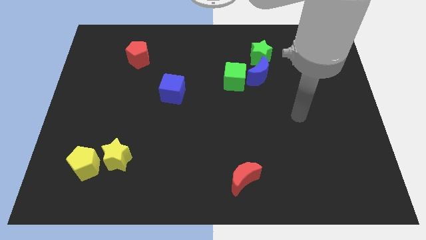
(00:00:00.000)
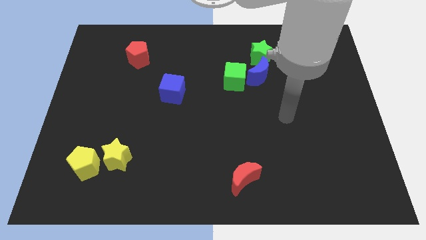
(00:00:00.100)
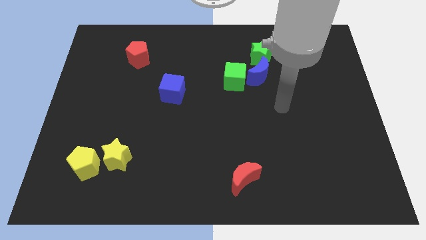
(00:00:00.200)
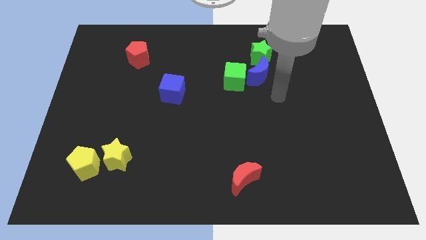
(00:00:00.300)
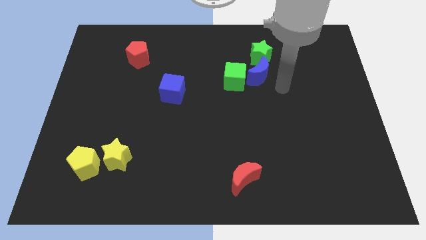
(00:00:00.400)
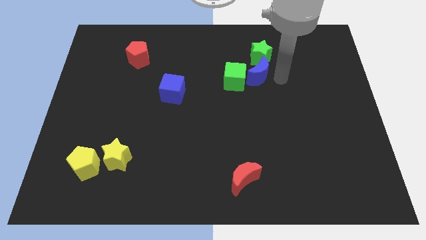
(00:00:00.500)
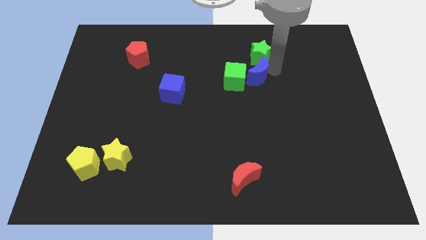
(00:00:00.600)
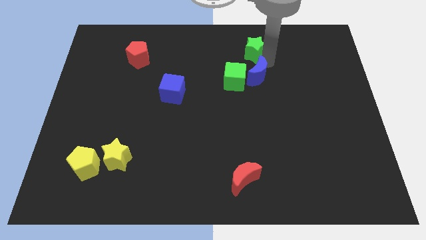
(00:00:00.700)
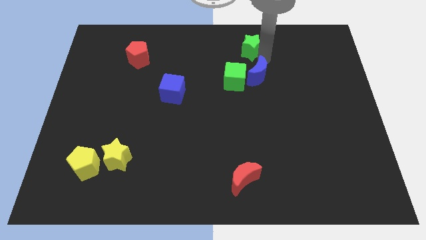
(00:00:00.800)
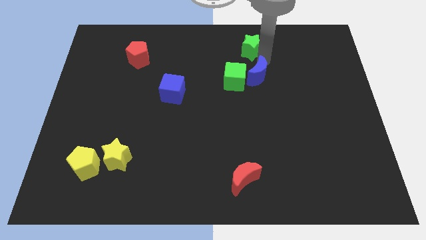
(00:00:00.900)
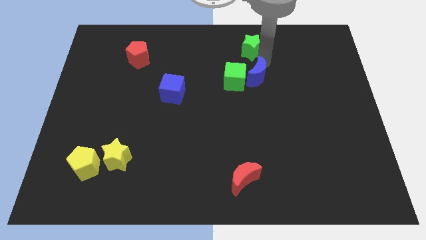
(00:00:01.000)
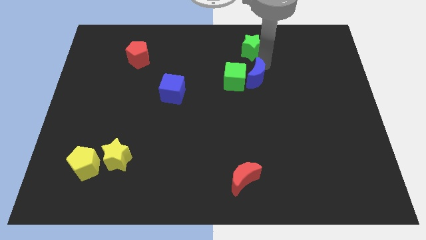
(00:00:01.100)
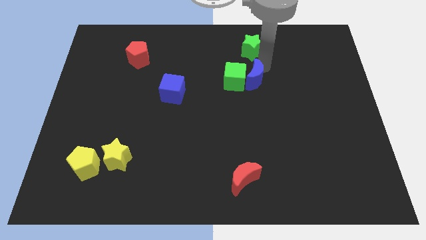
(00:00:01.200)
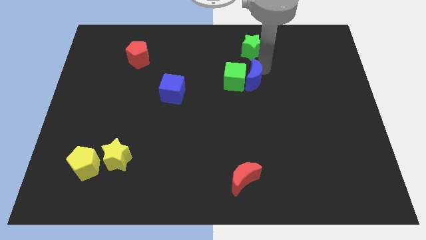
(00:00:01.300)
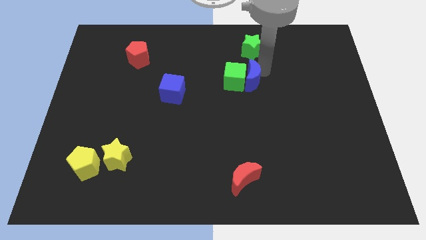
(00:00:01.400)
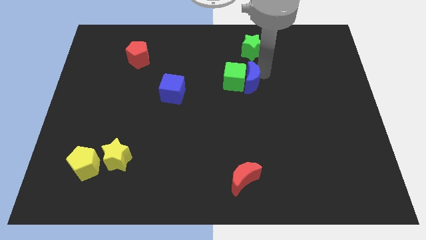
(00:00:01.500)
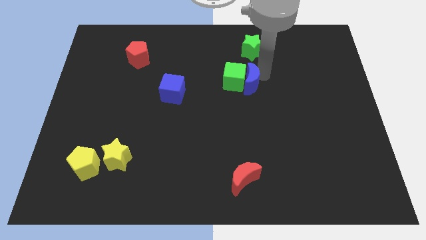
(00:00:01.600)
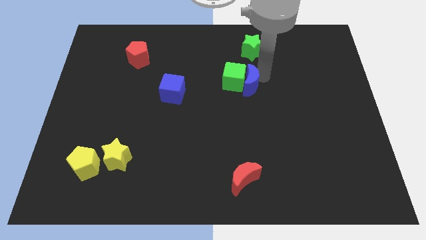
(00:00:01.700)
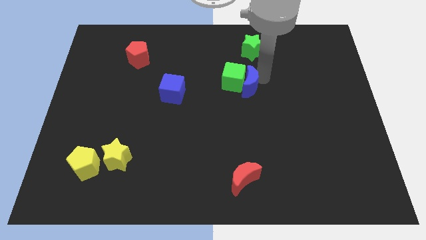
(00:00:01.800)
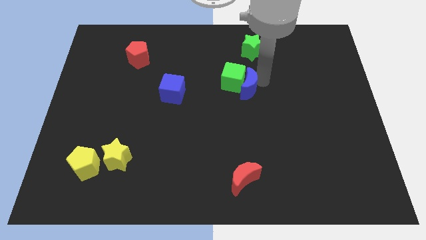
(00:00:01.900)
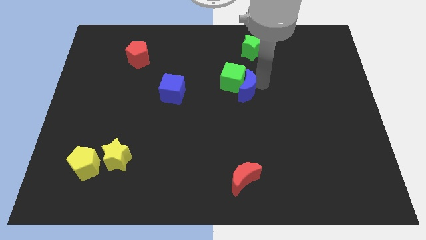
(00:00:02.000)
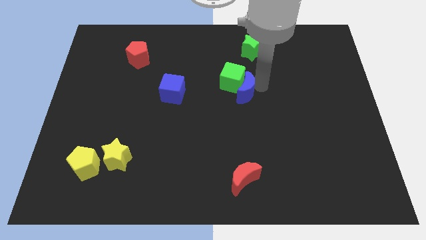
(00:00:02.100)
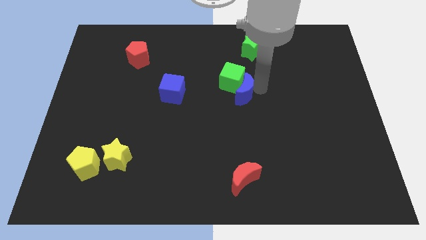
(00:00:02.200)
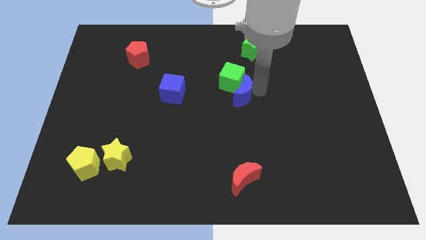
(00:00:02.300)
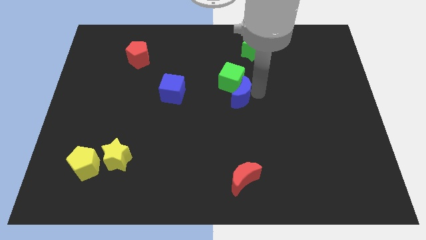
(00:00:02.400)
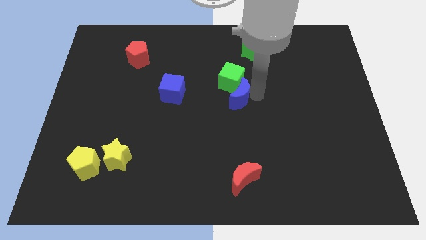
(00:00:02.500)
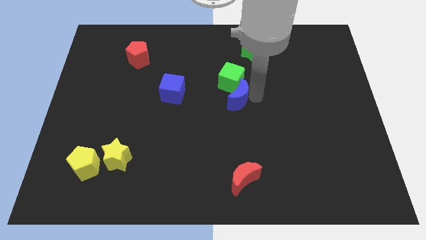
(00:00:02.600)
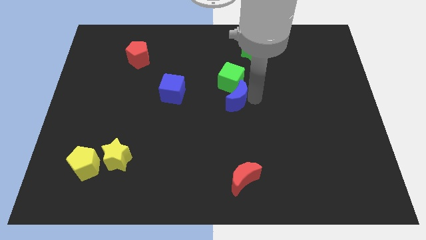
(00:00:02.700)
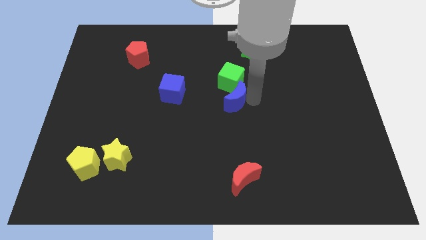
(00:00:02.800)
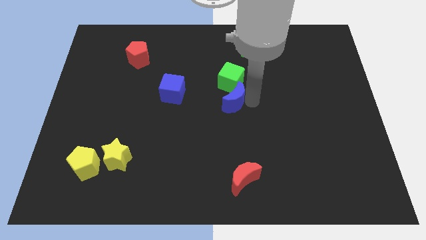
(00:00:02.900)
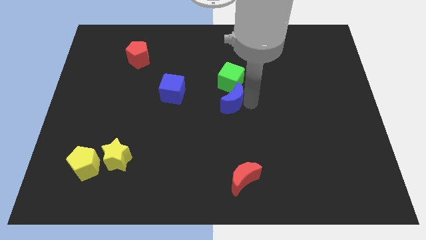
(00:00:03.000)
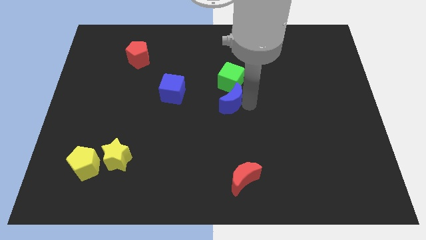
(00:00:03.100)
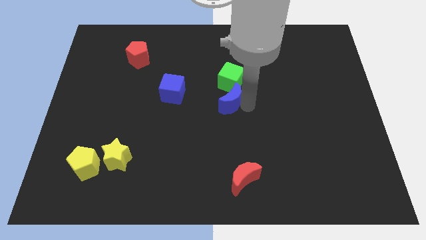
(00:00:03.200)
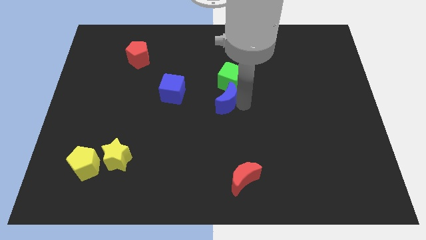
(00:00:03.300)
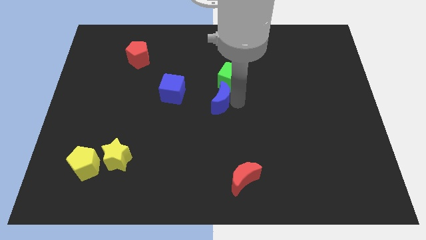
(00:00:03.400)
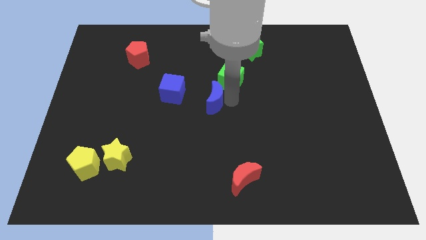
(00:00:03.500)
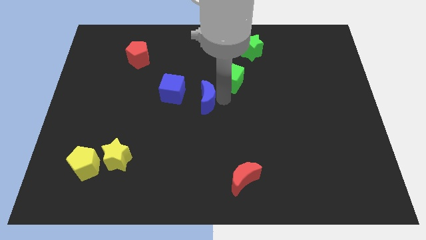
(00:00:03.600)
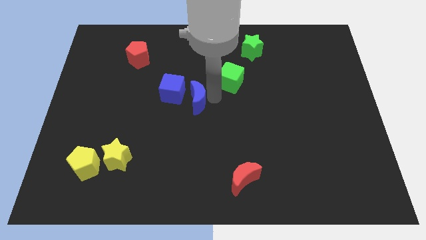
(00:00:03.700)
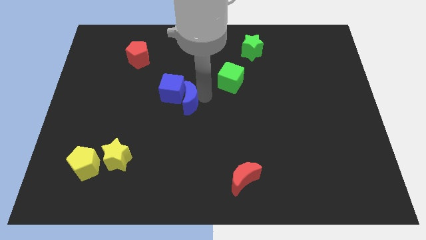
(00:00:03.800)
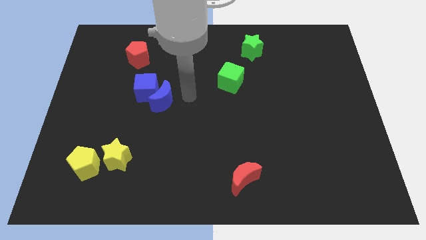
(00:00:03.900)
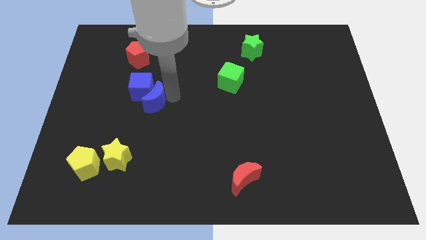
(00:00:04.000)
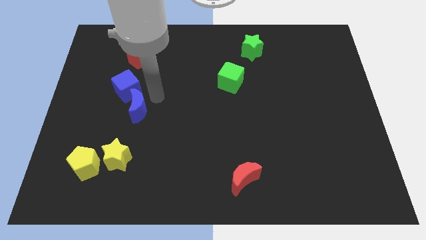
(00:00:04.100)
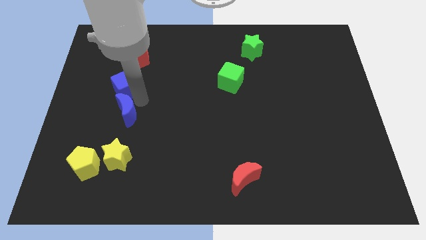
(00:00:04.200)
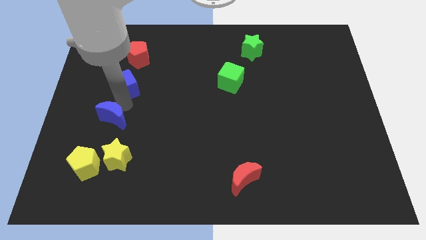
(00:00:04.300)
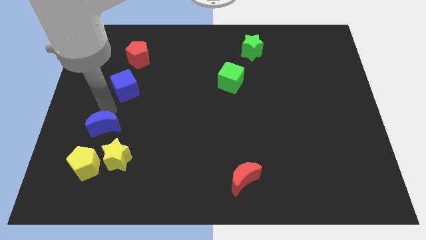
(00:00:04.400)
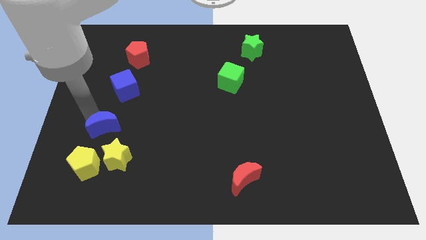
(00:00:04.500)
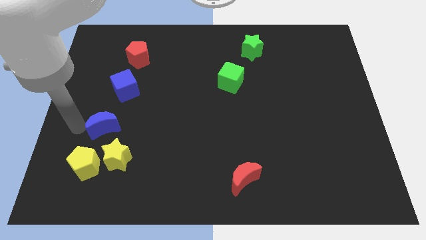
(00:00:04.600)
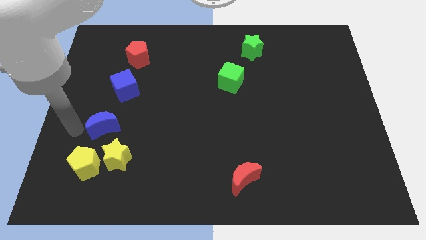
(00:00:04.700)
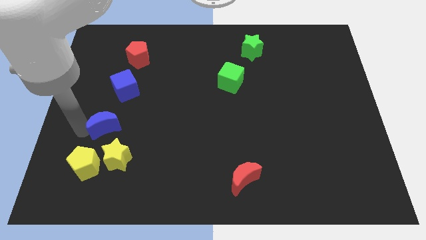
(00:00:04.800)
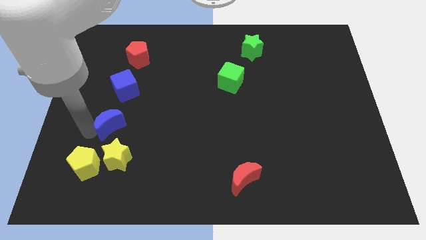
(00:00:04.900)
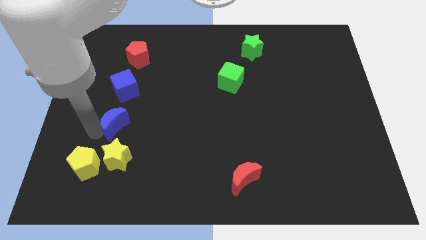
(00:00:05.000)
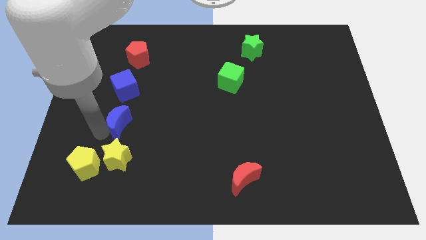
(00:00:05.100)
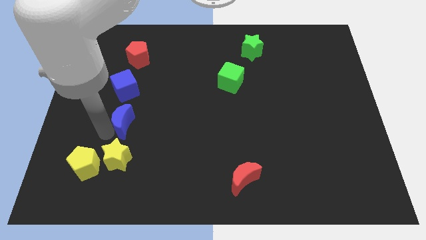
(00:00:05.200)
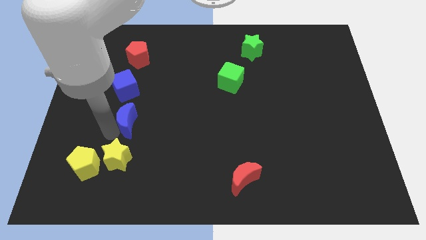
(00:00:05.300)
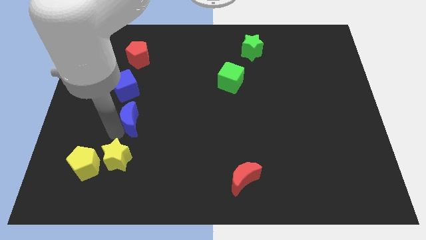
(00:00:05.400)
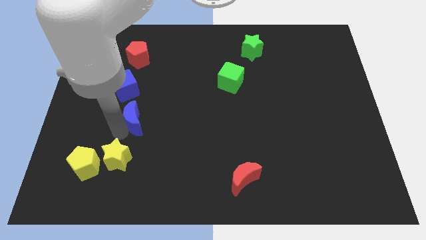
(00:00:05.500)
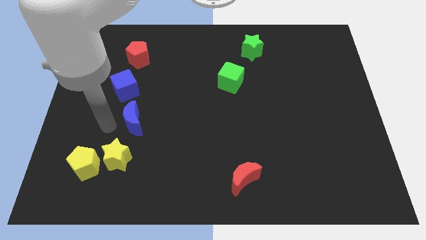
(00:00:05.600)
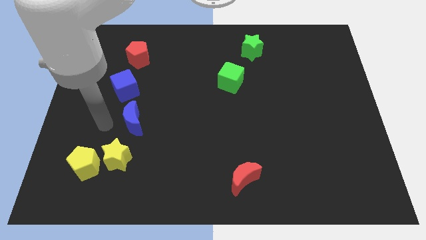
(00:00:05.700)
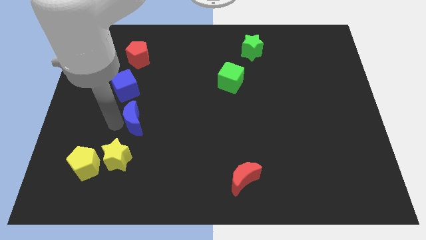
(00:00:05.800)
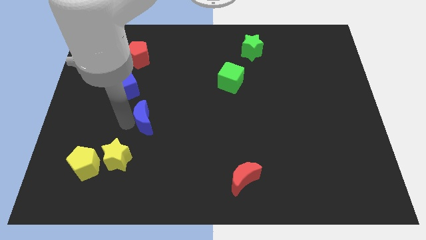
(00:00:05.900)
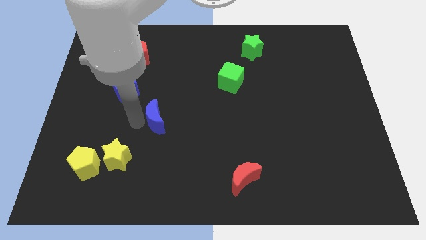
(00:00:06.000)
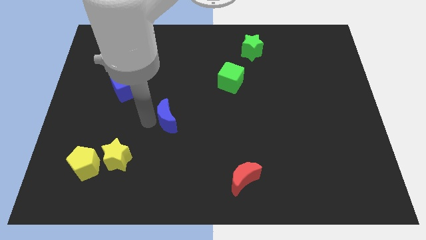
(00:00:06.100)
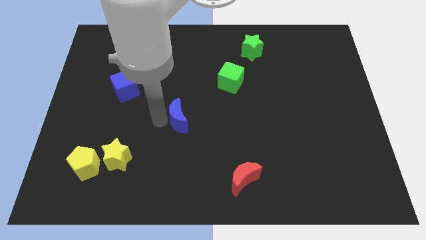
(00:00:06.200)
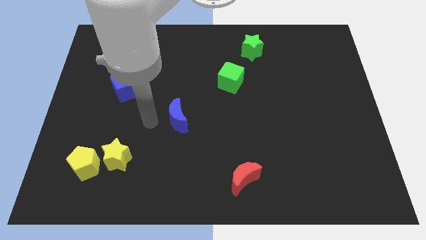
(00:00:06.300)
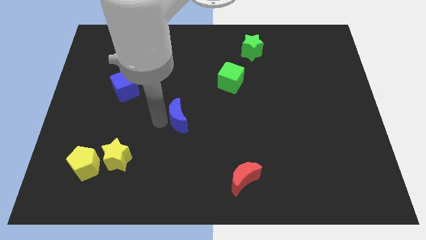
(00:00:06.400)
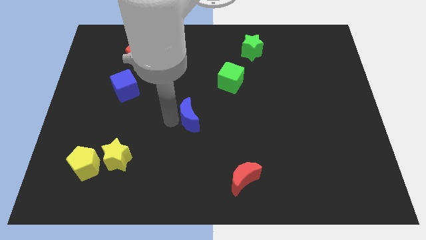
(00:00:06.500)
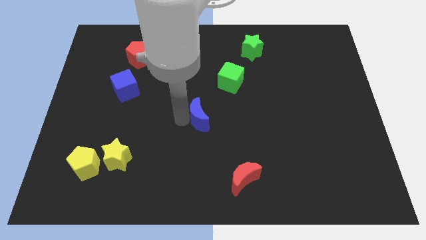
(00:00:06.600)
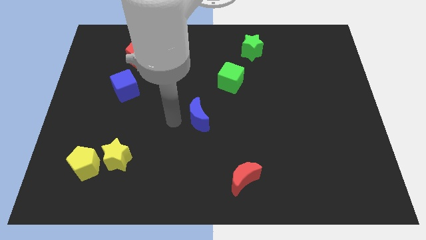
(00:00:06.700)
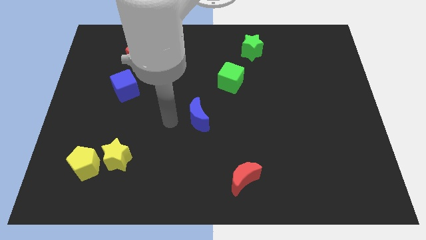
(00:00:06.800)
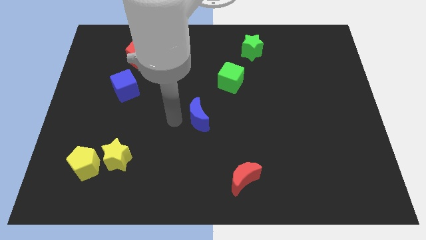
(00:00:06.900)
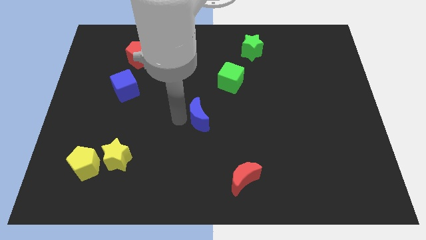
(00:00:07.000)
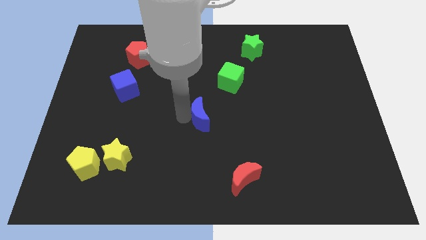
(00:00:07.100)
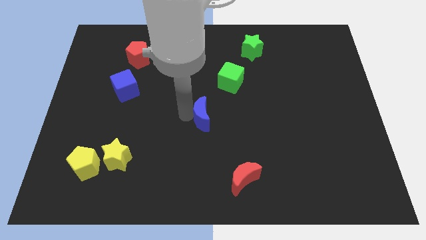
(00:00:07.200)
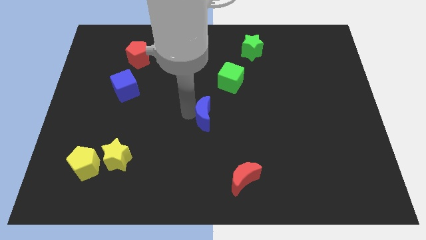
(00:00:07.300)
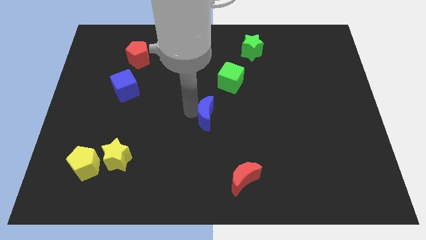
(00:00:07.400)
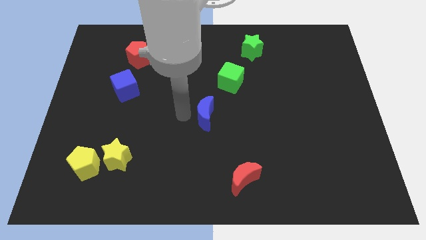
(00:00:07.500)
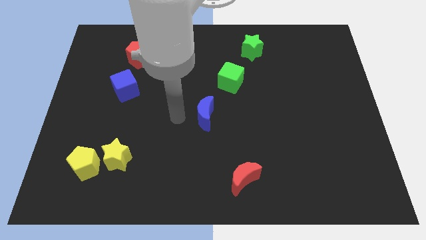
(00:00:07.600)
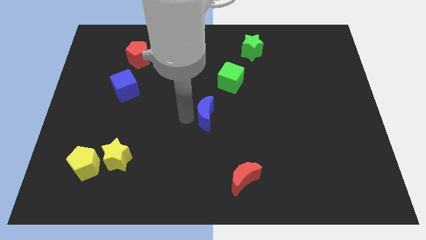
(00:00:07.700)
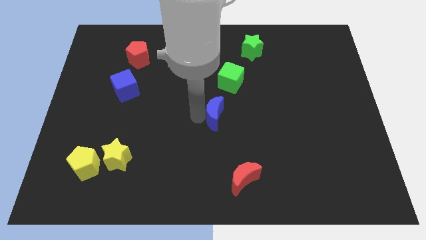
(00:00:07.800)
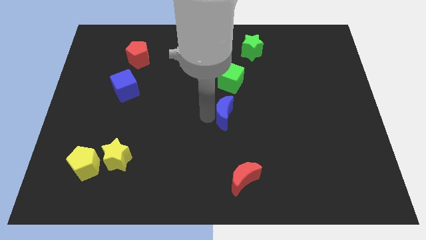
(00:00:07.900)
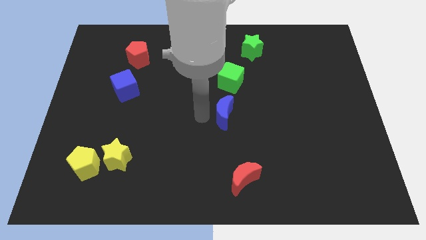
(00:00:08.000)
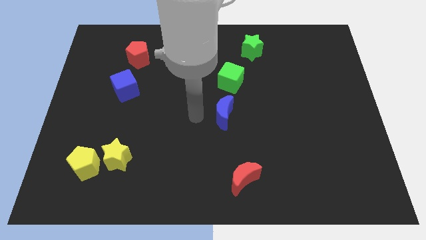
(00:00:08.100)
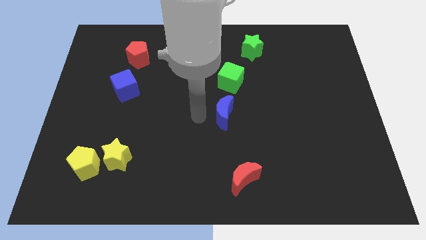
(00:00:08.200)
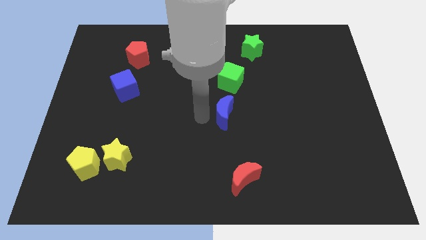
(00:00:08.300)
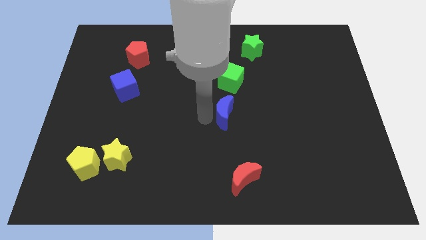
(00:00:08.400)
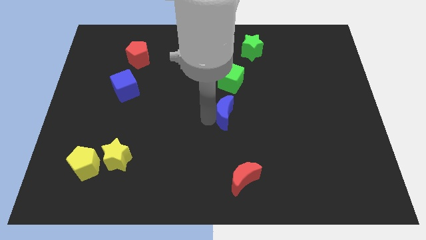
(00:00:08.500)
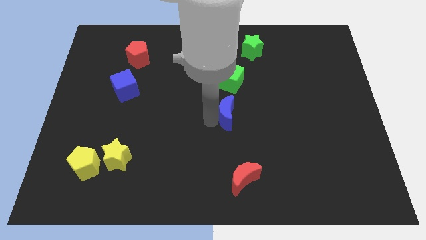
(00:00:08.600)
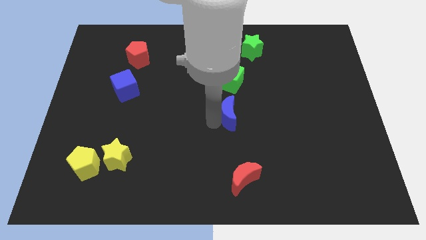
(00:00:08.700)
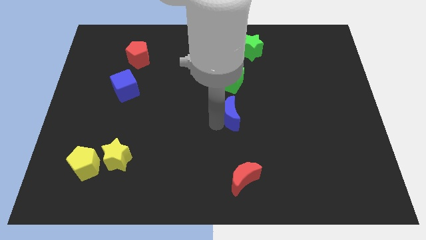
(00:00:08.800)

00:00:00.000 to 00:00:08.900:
push the blue moon above the red moon
